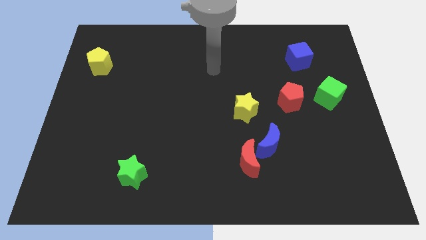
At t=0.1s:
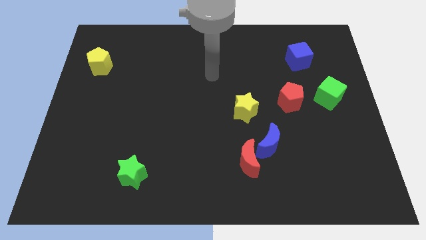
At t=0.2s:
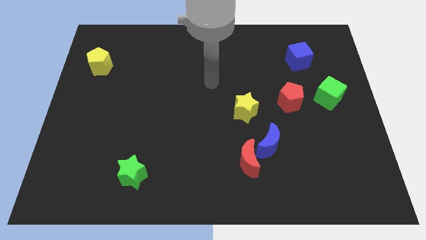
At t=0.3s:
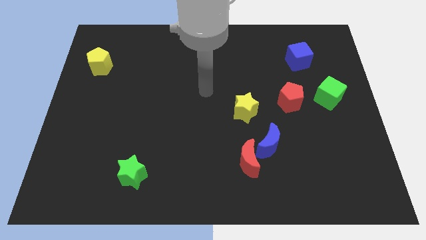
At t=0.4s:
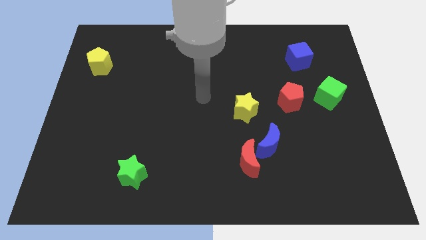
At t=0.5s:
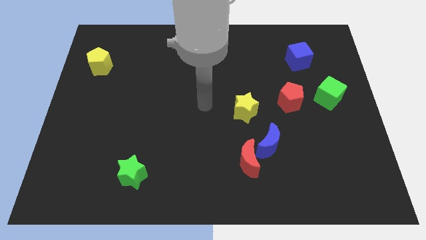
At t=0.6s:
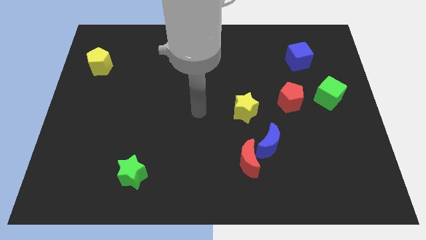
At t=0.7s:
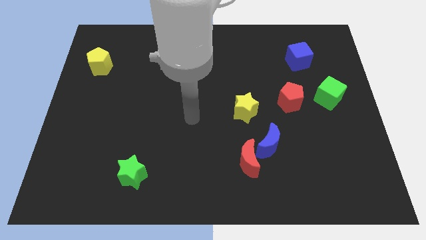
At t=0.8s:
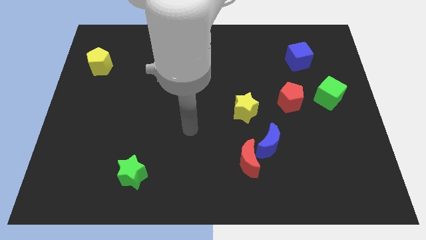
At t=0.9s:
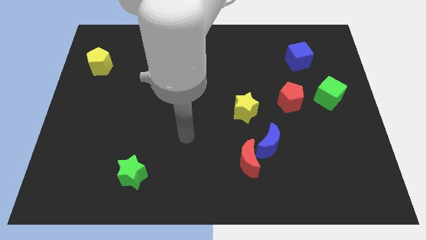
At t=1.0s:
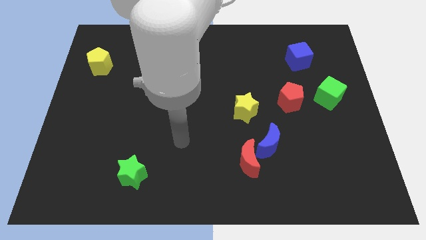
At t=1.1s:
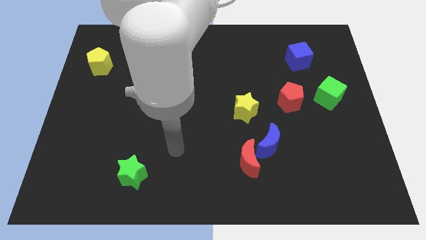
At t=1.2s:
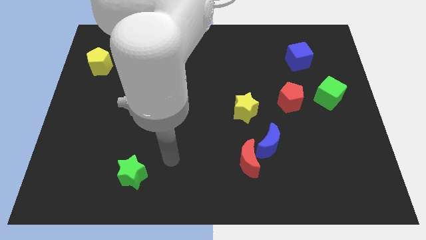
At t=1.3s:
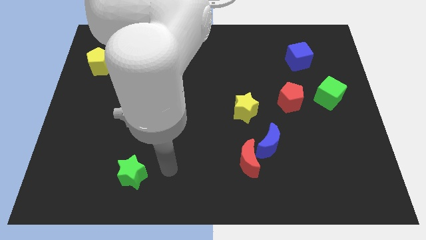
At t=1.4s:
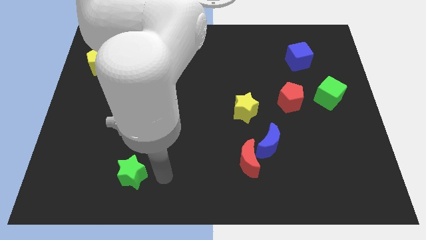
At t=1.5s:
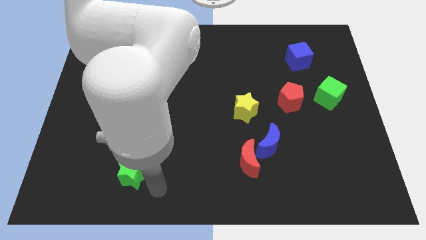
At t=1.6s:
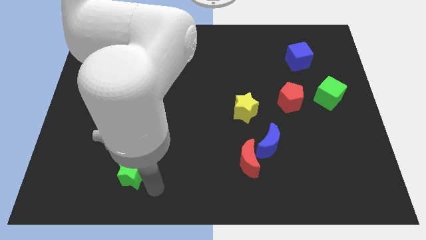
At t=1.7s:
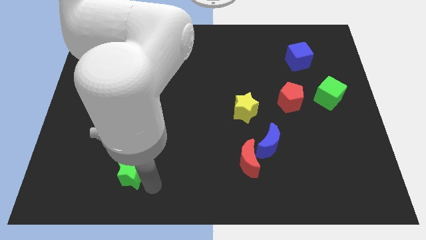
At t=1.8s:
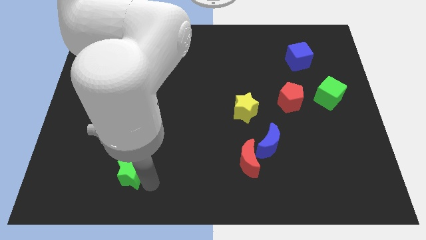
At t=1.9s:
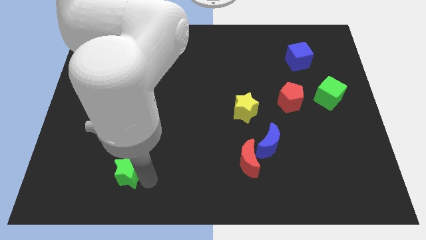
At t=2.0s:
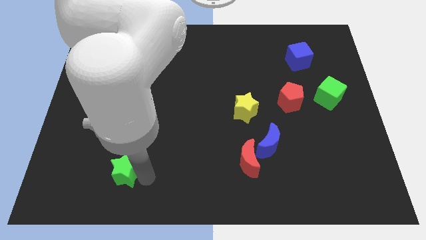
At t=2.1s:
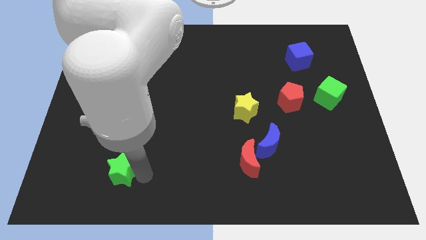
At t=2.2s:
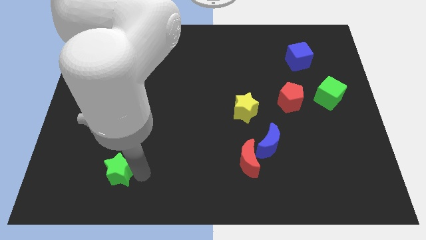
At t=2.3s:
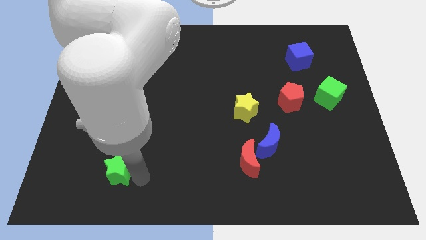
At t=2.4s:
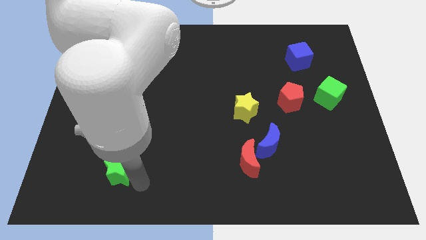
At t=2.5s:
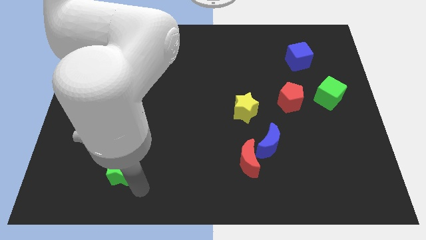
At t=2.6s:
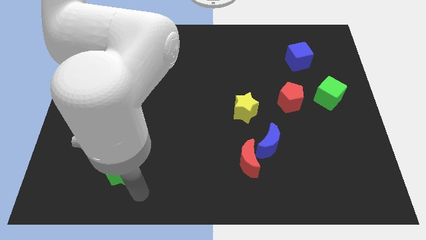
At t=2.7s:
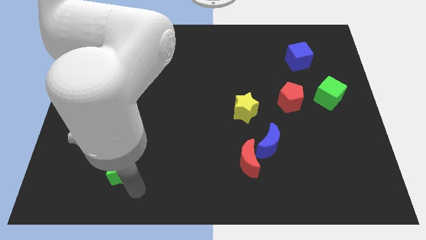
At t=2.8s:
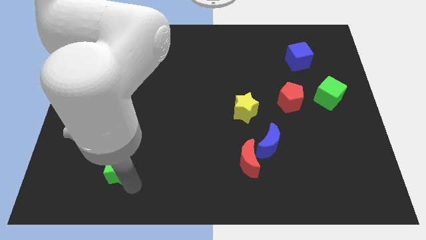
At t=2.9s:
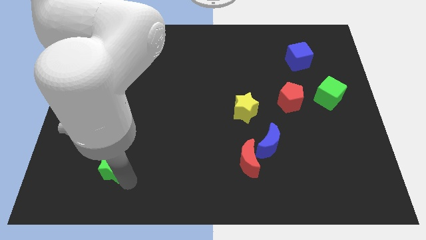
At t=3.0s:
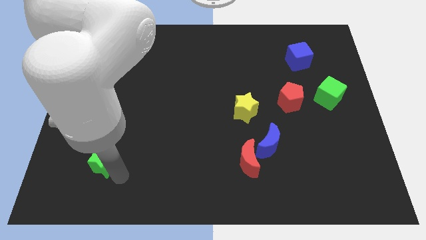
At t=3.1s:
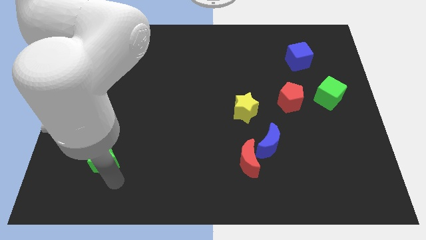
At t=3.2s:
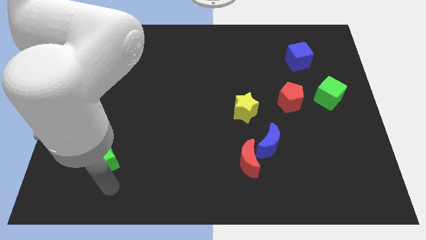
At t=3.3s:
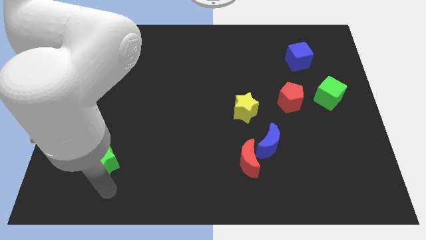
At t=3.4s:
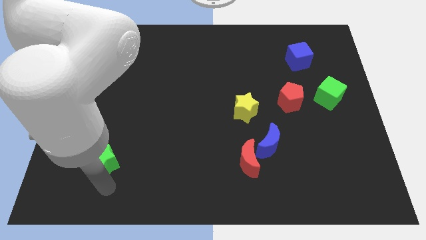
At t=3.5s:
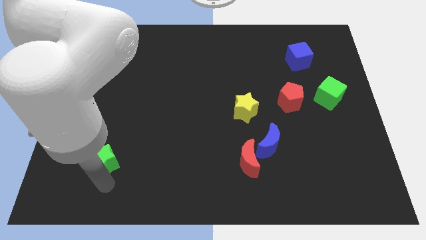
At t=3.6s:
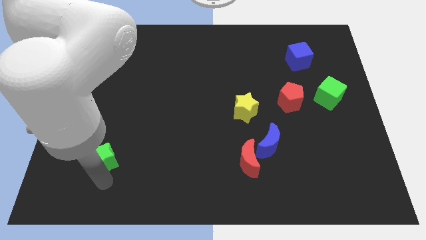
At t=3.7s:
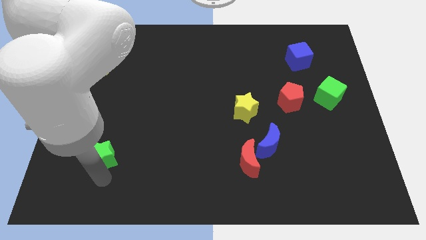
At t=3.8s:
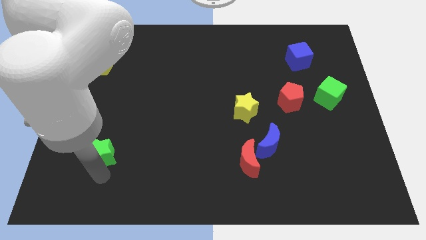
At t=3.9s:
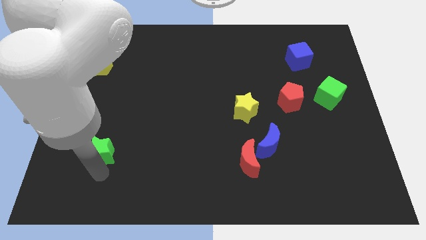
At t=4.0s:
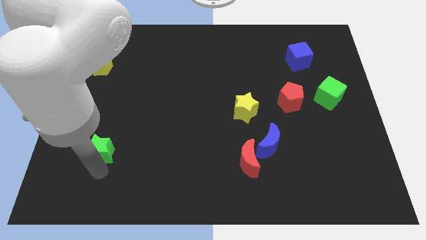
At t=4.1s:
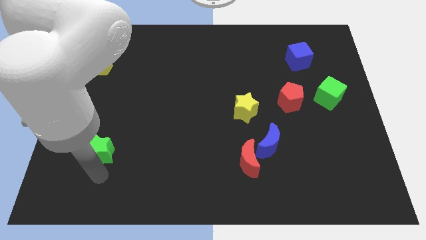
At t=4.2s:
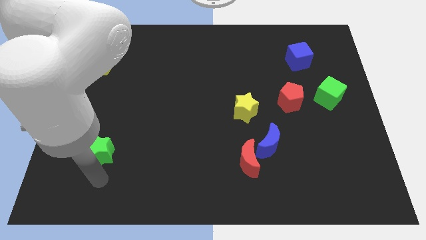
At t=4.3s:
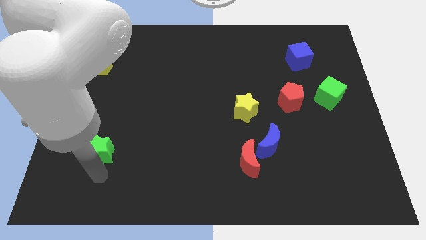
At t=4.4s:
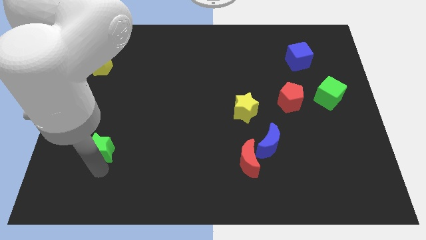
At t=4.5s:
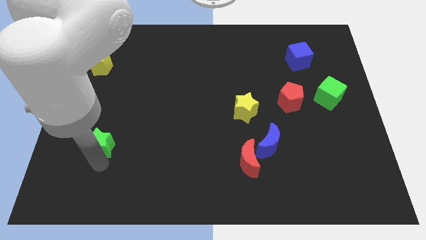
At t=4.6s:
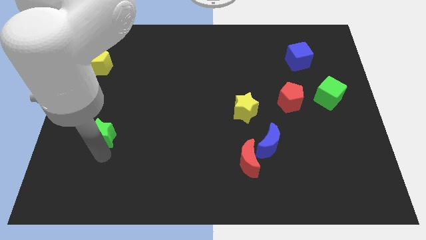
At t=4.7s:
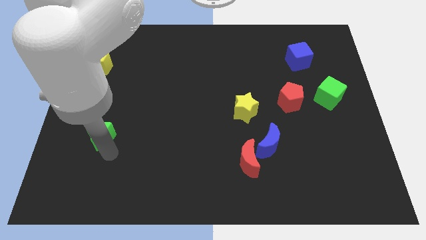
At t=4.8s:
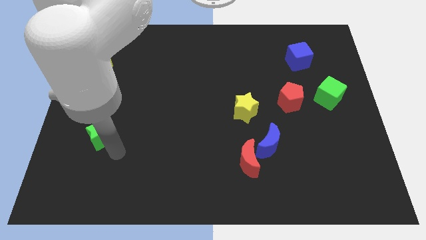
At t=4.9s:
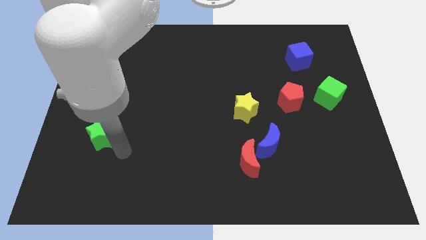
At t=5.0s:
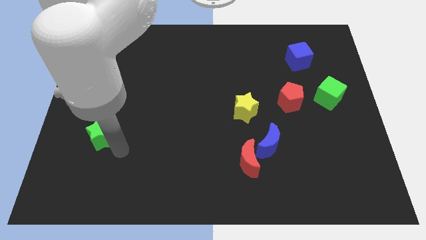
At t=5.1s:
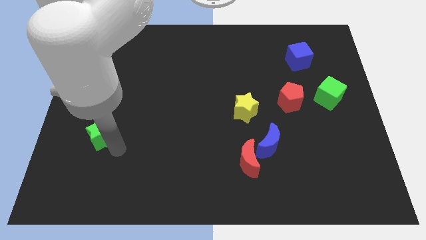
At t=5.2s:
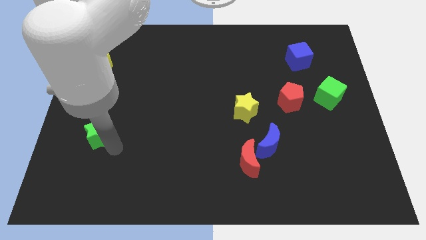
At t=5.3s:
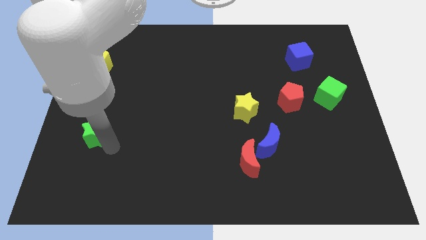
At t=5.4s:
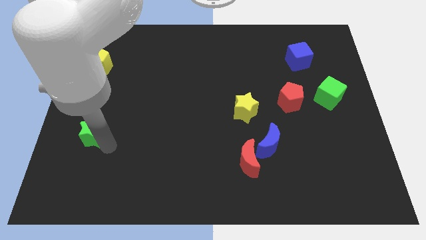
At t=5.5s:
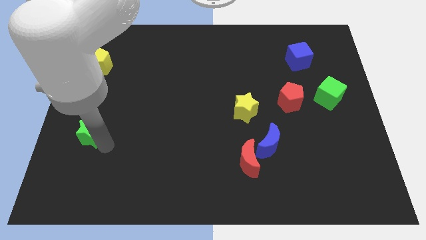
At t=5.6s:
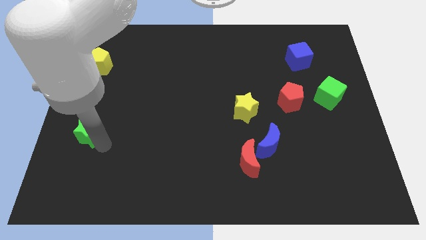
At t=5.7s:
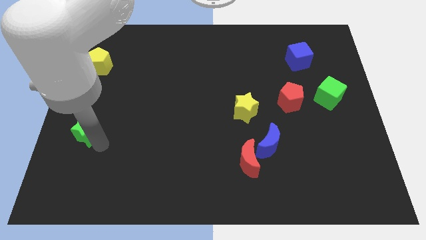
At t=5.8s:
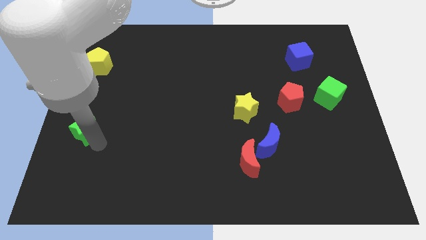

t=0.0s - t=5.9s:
push the green star to the left side of the board
